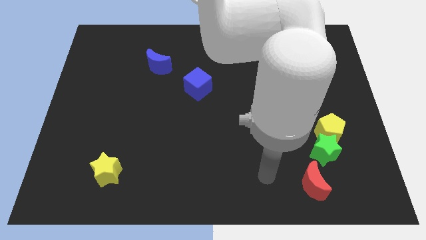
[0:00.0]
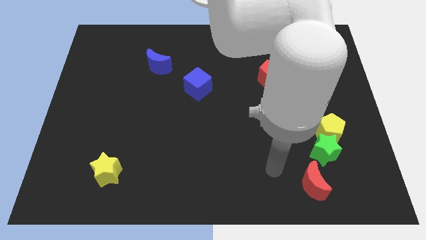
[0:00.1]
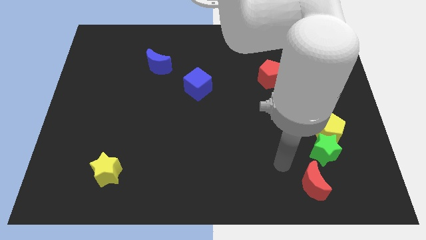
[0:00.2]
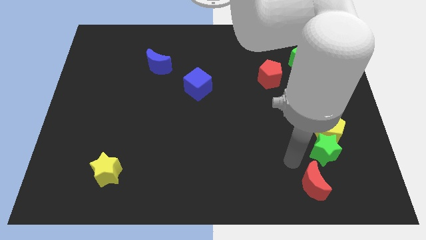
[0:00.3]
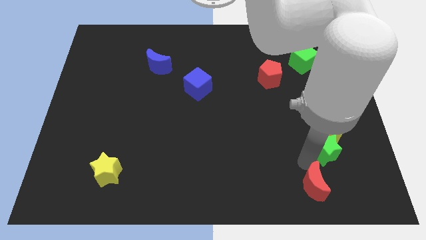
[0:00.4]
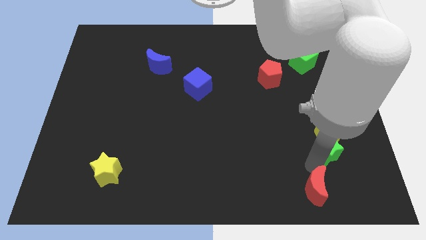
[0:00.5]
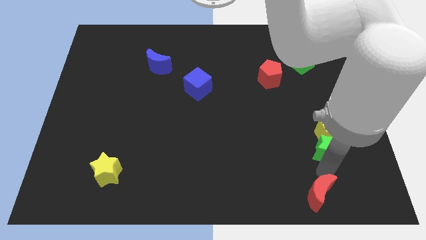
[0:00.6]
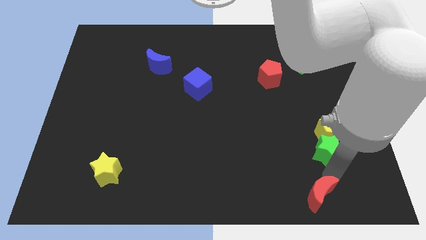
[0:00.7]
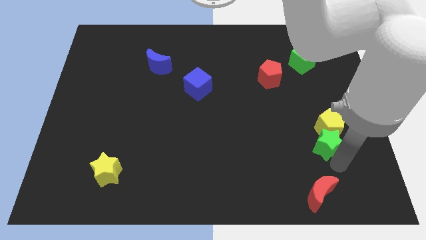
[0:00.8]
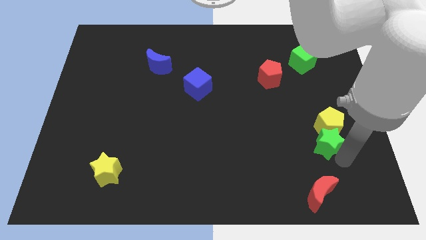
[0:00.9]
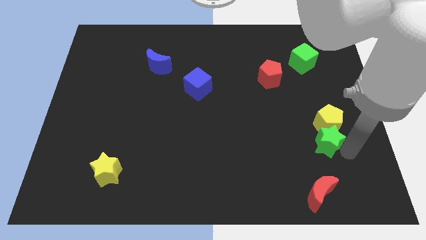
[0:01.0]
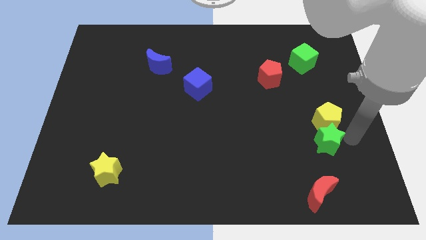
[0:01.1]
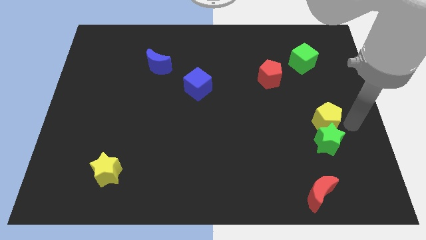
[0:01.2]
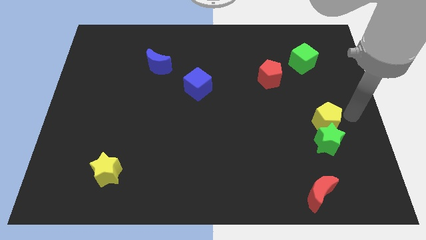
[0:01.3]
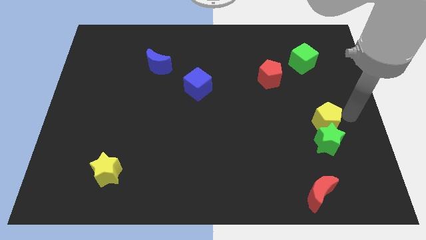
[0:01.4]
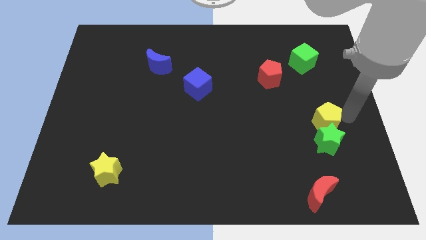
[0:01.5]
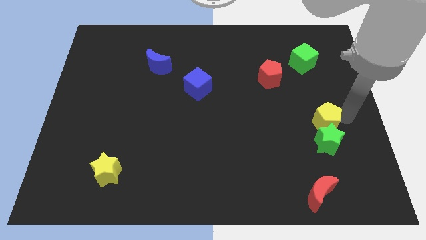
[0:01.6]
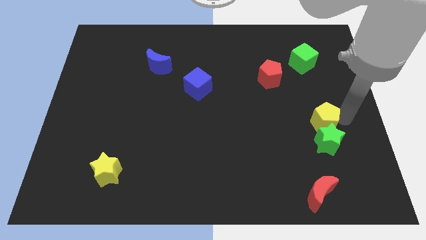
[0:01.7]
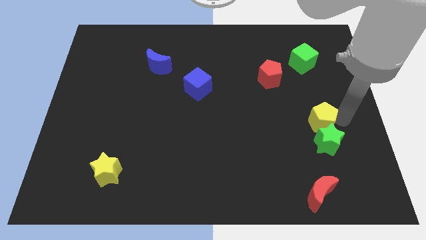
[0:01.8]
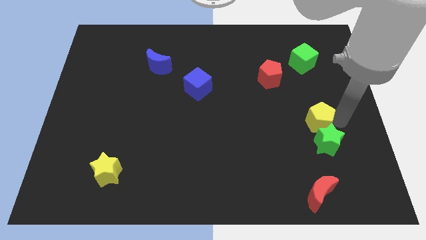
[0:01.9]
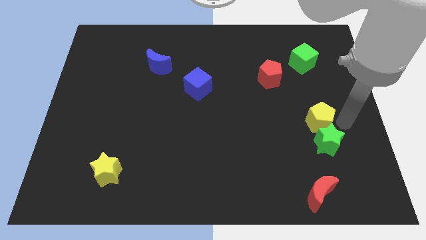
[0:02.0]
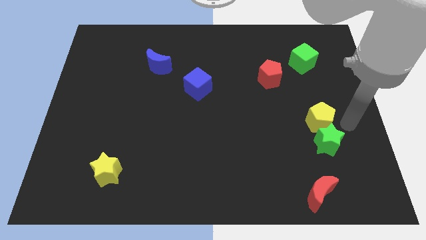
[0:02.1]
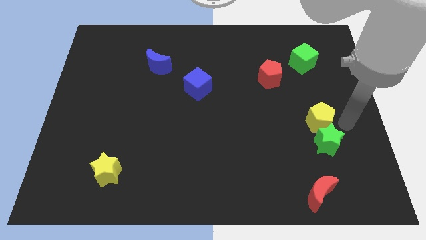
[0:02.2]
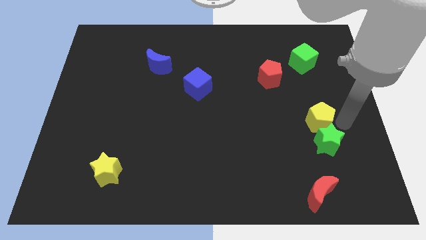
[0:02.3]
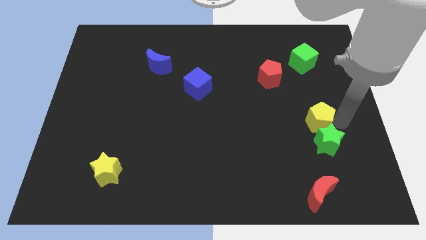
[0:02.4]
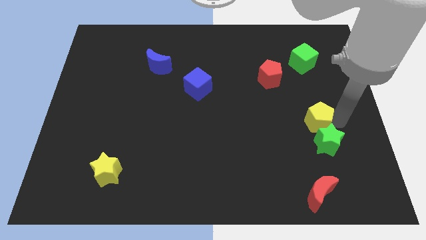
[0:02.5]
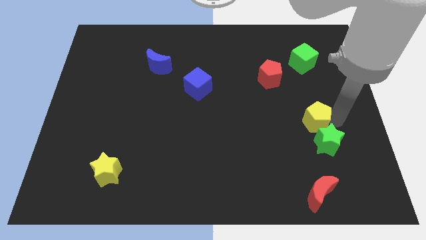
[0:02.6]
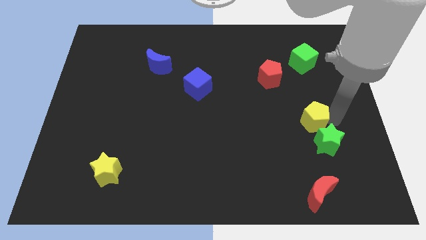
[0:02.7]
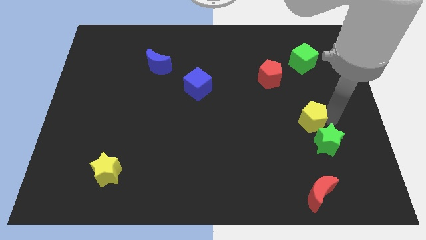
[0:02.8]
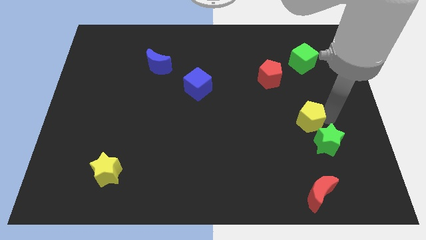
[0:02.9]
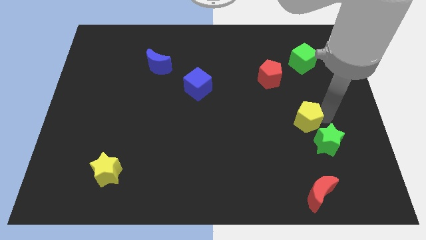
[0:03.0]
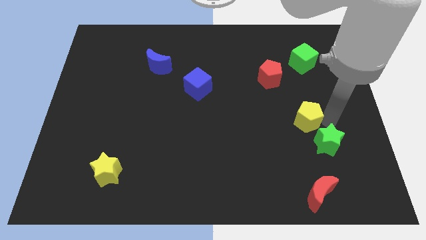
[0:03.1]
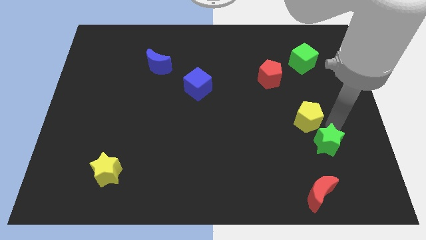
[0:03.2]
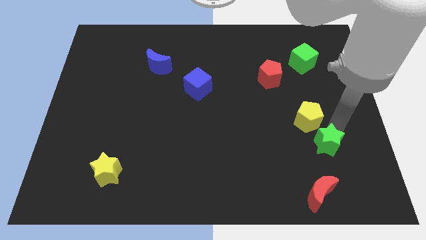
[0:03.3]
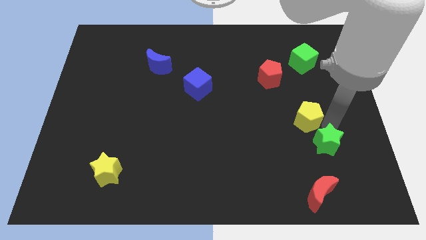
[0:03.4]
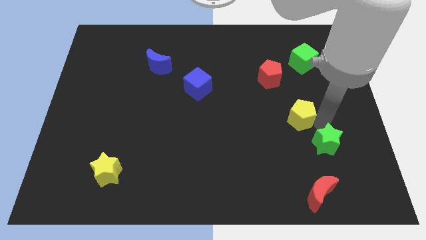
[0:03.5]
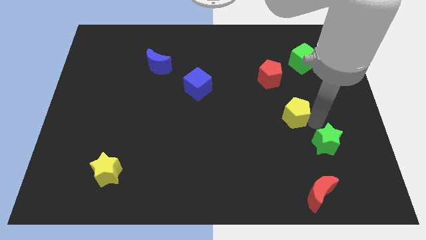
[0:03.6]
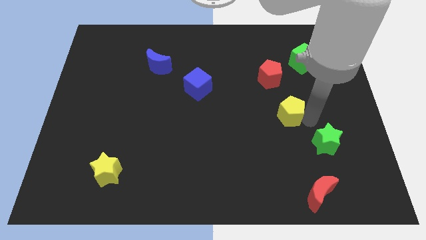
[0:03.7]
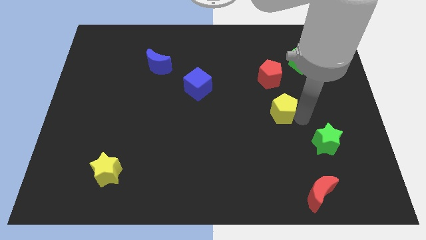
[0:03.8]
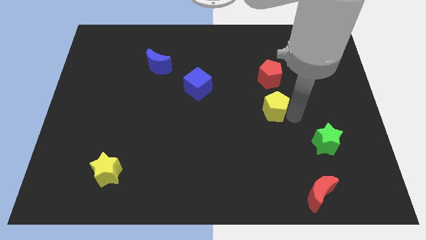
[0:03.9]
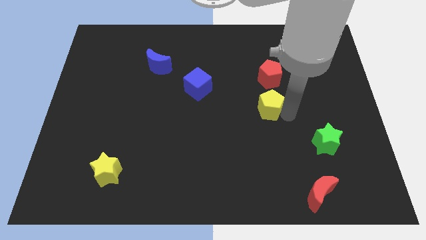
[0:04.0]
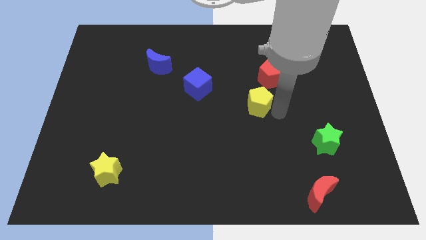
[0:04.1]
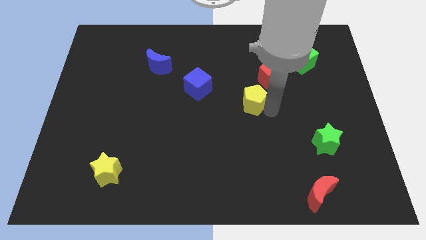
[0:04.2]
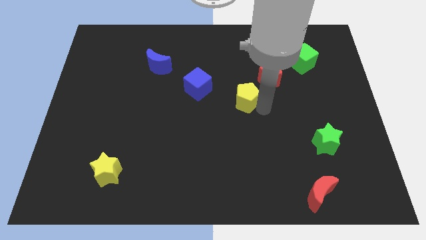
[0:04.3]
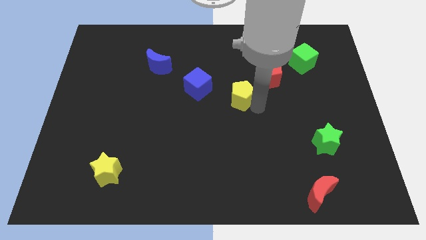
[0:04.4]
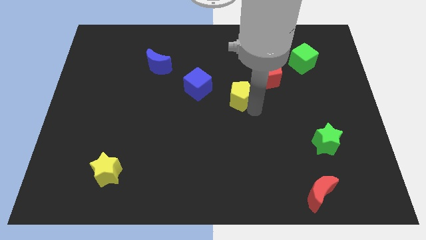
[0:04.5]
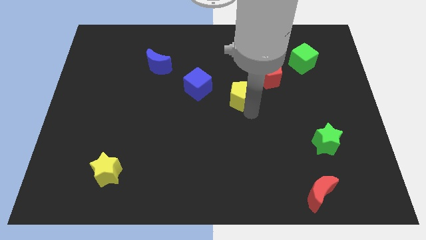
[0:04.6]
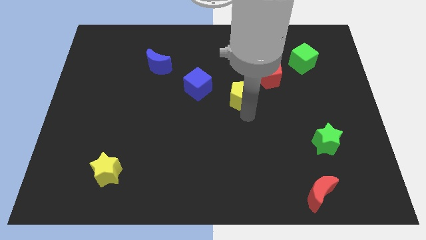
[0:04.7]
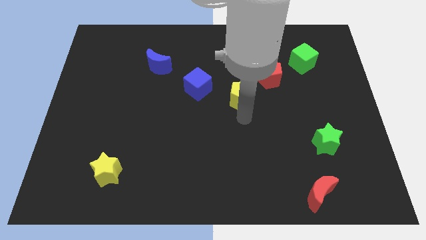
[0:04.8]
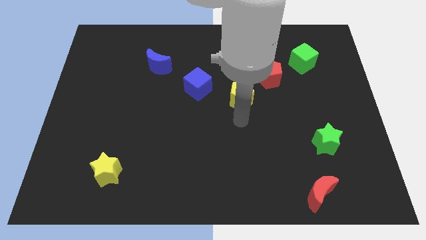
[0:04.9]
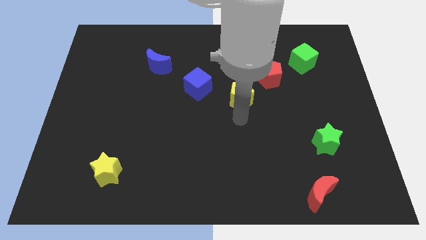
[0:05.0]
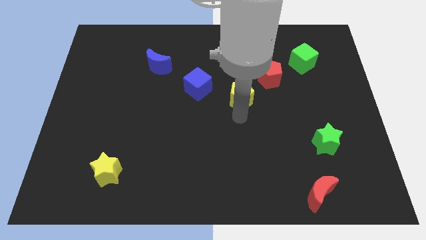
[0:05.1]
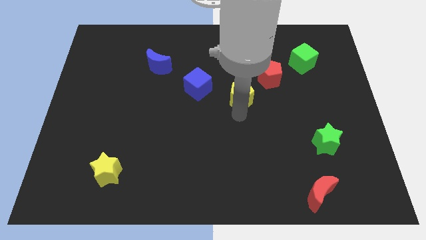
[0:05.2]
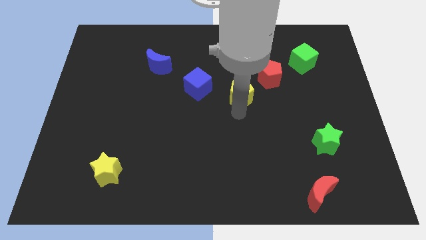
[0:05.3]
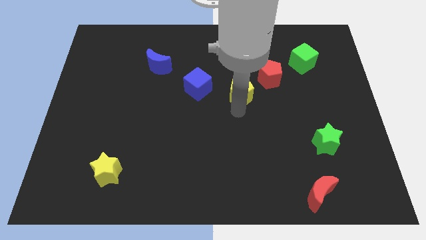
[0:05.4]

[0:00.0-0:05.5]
push the yellow pentagon upwards and to the left diagonally

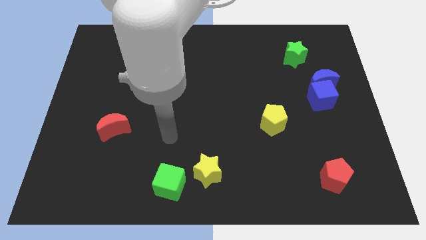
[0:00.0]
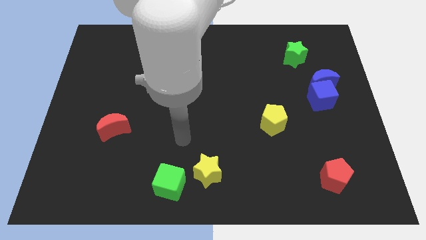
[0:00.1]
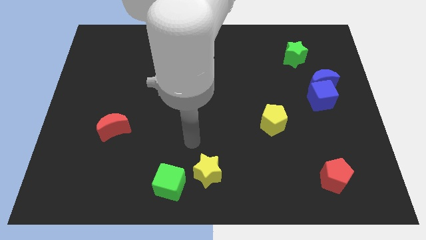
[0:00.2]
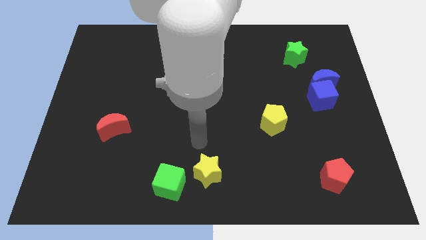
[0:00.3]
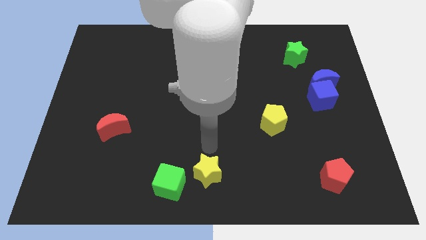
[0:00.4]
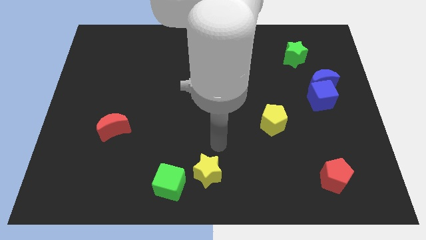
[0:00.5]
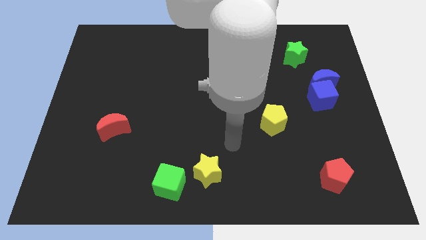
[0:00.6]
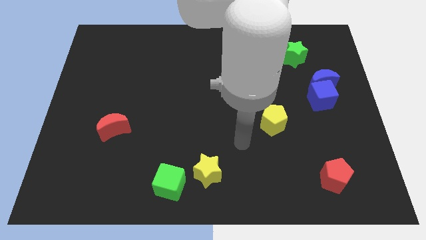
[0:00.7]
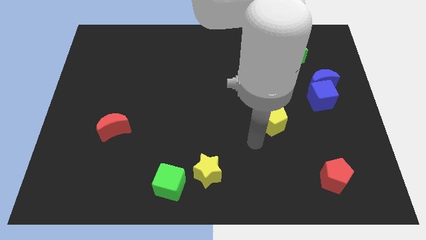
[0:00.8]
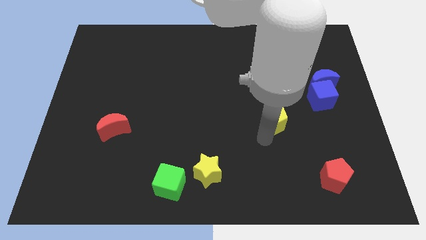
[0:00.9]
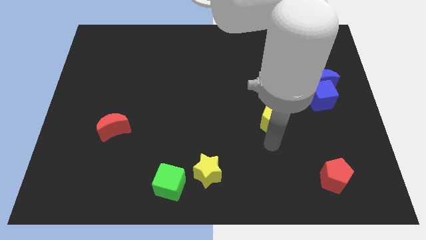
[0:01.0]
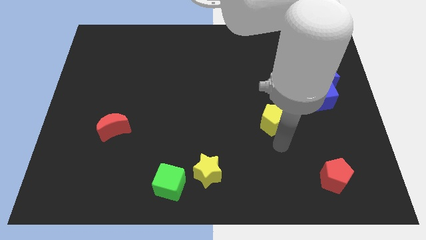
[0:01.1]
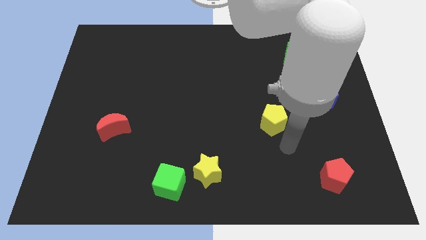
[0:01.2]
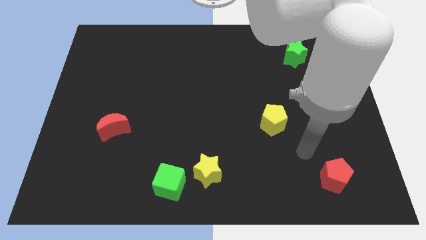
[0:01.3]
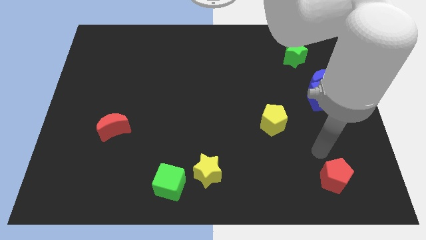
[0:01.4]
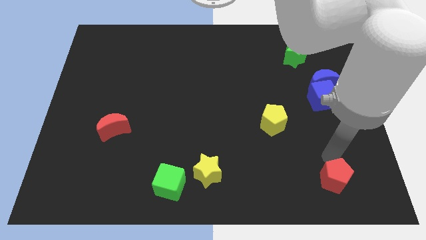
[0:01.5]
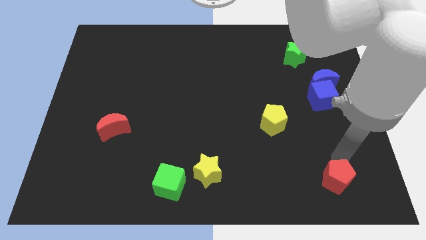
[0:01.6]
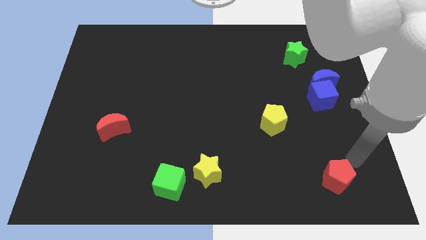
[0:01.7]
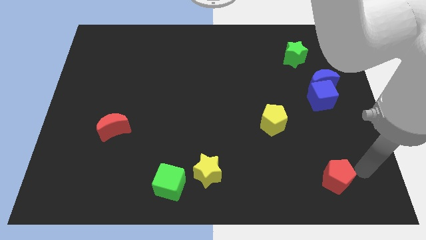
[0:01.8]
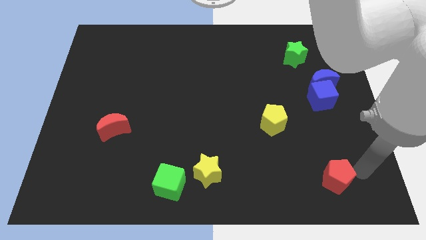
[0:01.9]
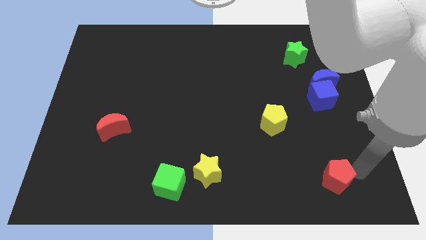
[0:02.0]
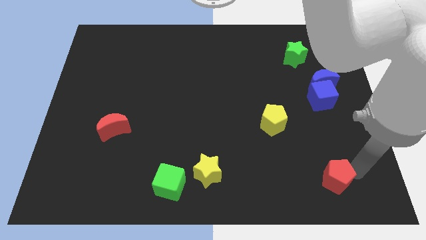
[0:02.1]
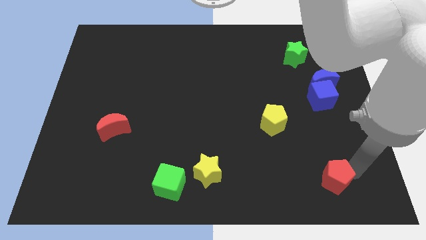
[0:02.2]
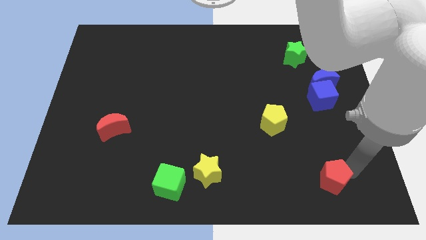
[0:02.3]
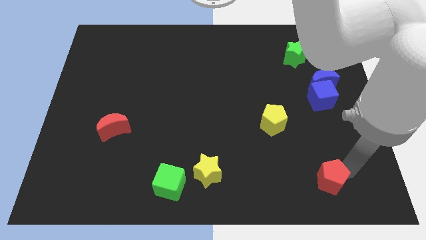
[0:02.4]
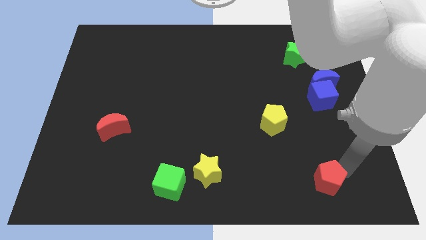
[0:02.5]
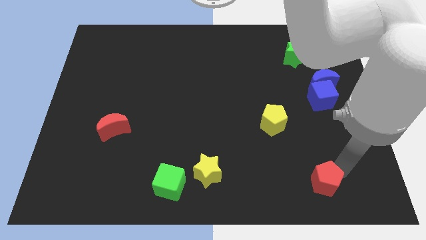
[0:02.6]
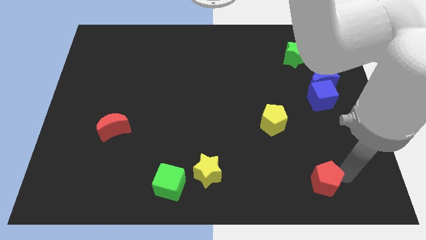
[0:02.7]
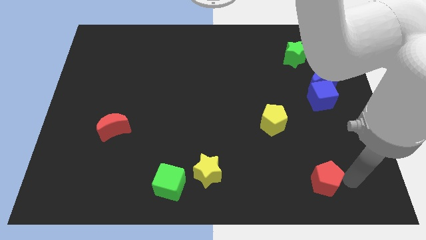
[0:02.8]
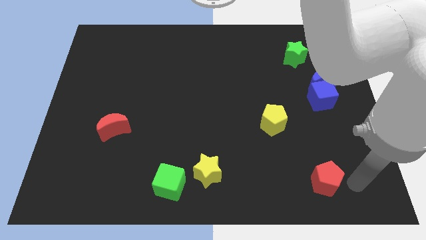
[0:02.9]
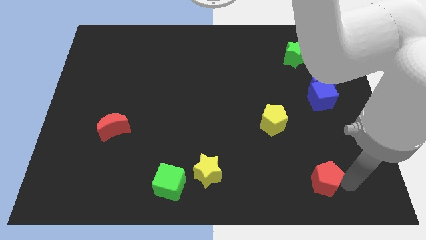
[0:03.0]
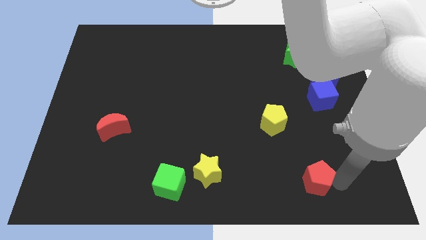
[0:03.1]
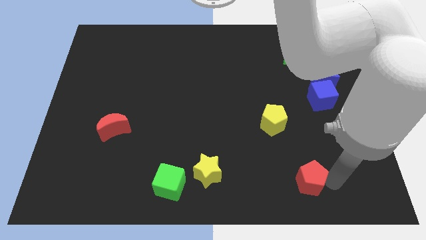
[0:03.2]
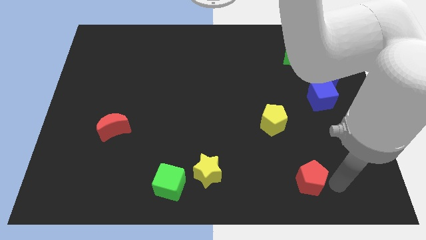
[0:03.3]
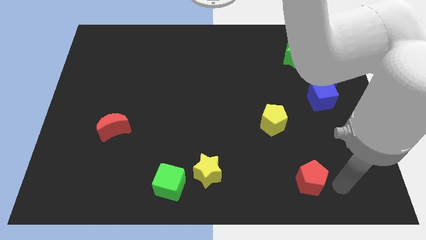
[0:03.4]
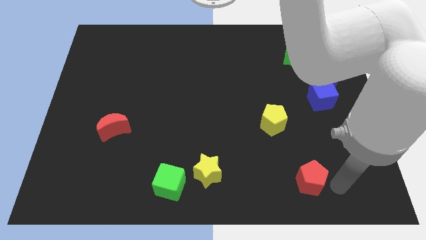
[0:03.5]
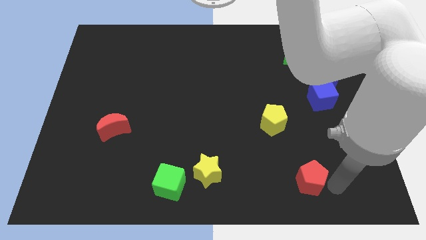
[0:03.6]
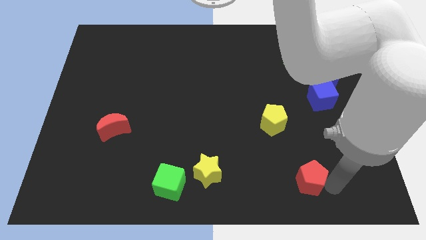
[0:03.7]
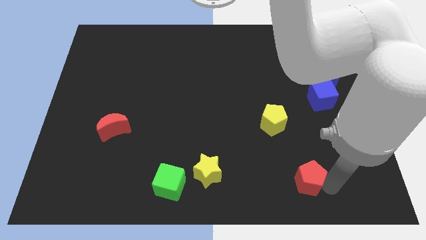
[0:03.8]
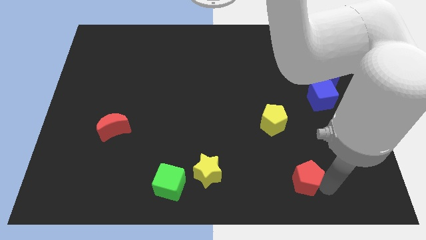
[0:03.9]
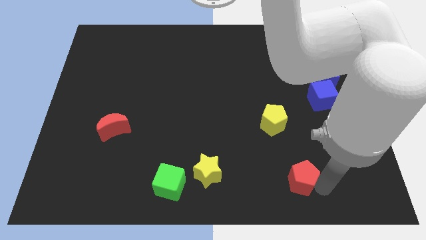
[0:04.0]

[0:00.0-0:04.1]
move the red pentagon left a little
